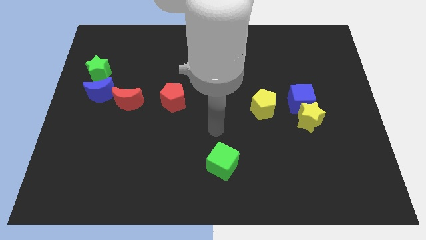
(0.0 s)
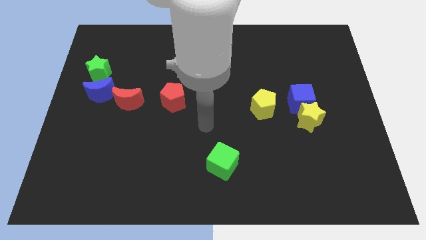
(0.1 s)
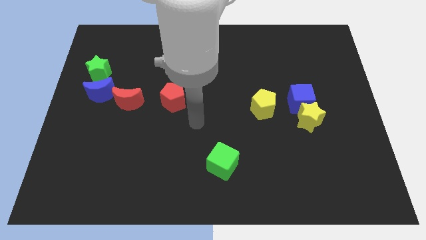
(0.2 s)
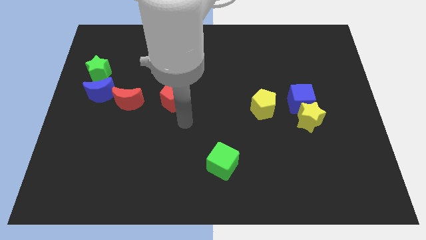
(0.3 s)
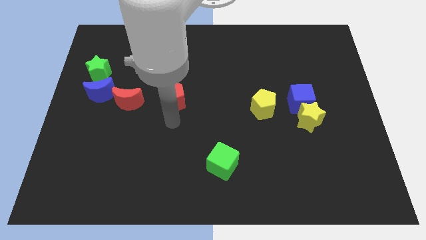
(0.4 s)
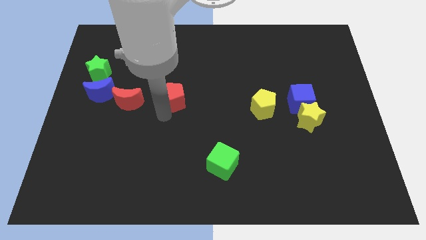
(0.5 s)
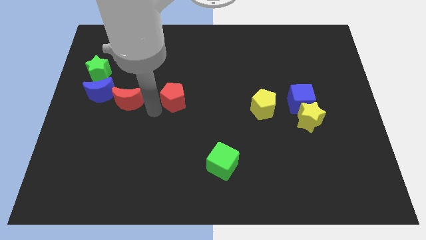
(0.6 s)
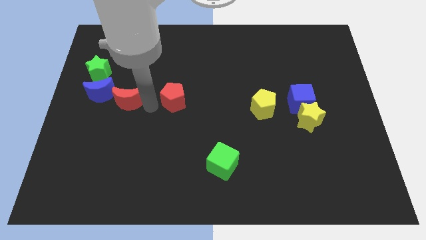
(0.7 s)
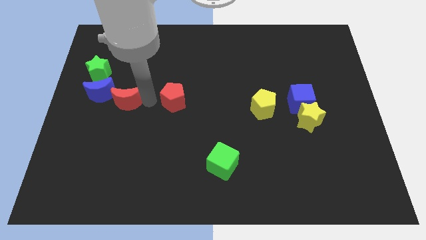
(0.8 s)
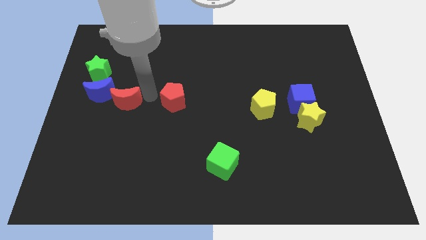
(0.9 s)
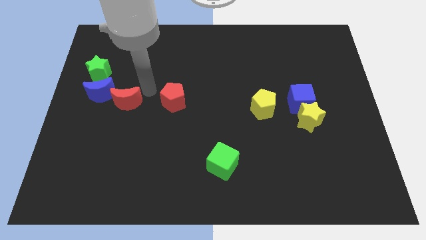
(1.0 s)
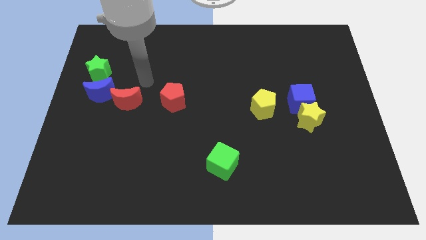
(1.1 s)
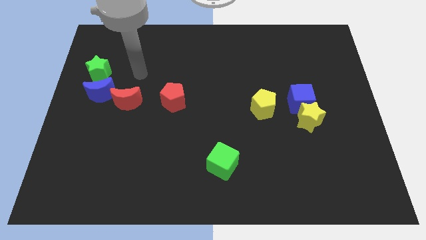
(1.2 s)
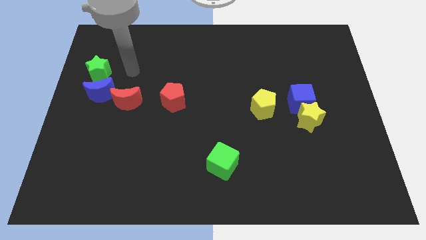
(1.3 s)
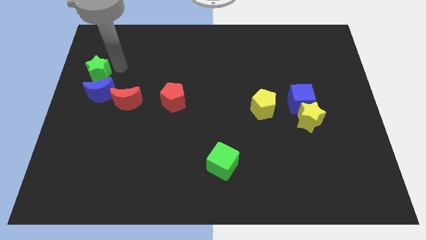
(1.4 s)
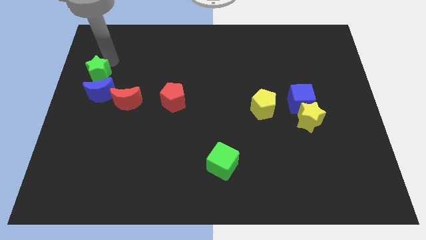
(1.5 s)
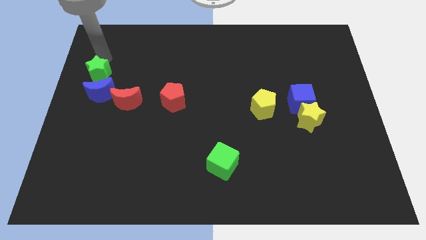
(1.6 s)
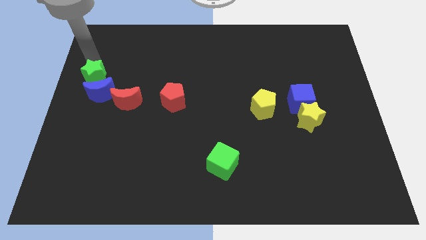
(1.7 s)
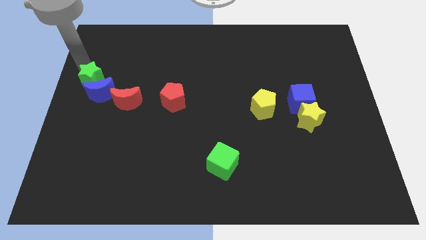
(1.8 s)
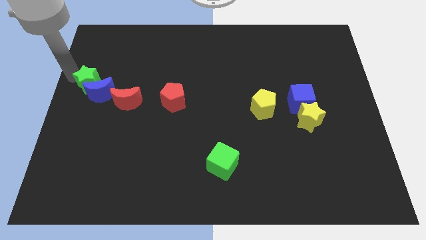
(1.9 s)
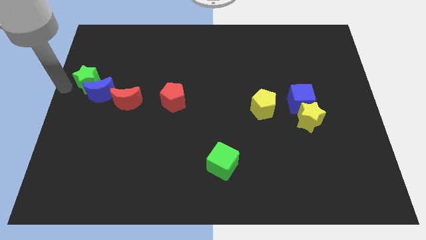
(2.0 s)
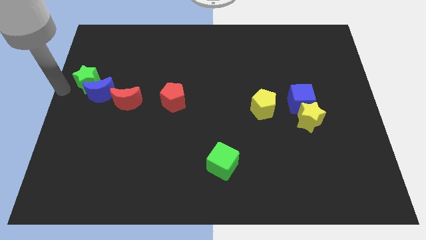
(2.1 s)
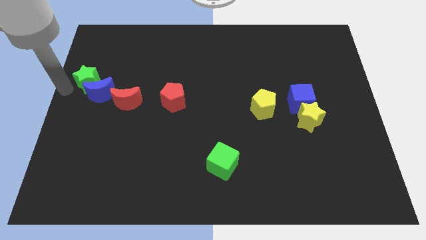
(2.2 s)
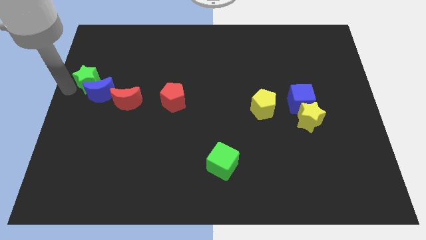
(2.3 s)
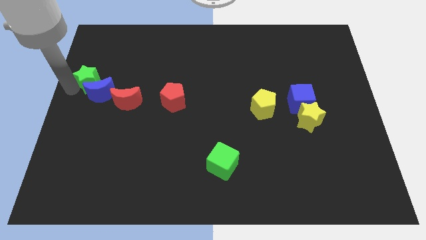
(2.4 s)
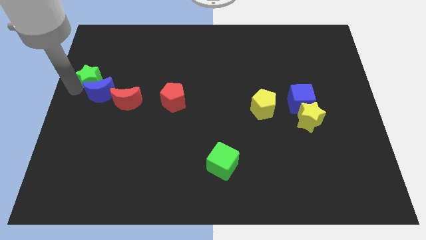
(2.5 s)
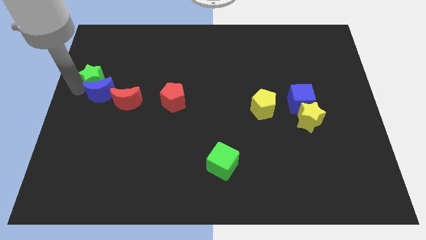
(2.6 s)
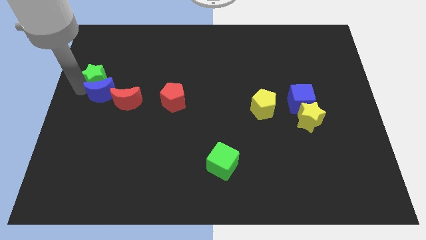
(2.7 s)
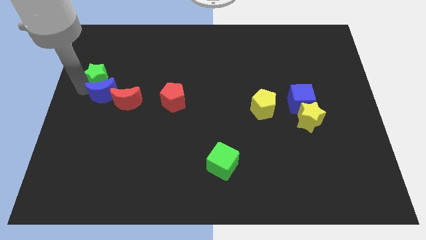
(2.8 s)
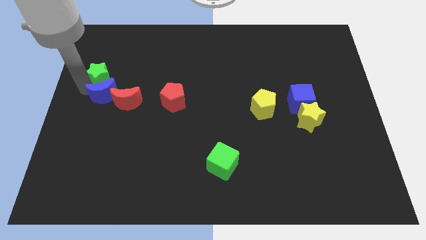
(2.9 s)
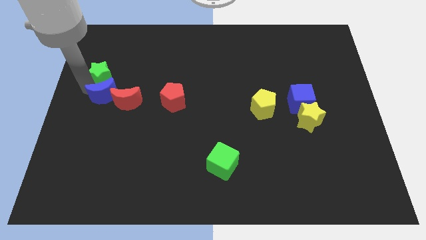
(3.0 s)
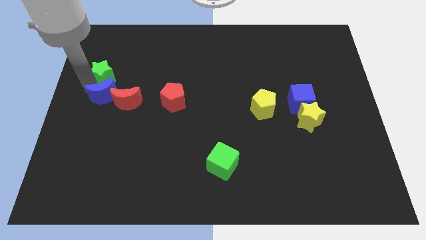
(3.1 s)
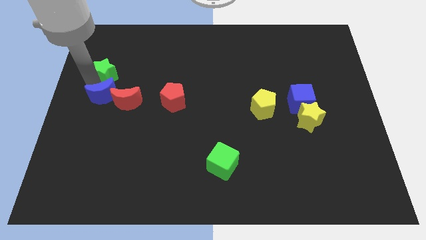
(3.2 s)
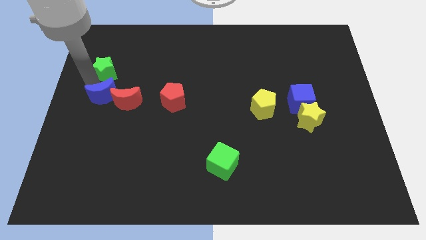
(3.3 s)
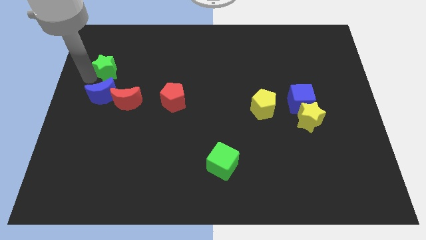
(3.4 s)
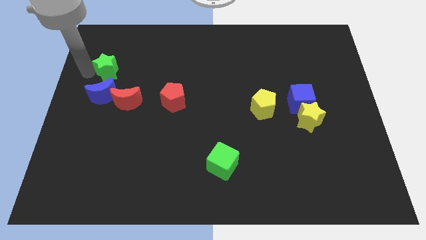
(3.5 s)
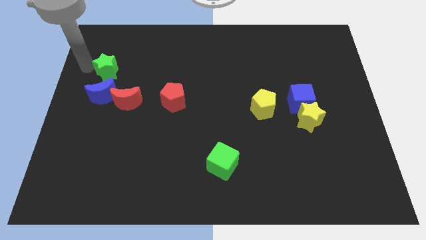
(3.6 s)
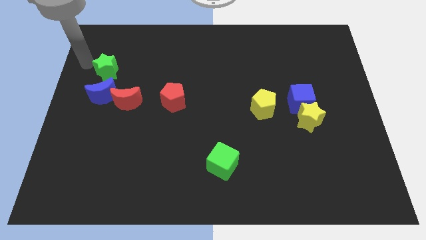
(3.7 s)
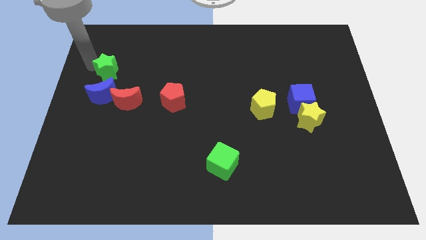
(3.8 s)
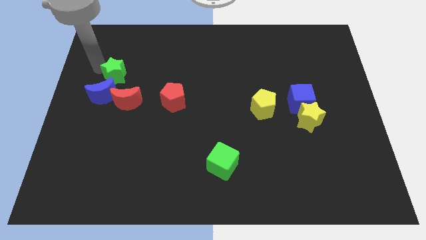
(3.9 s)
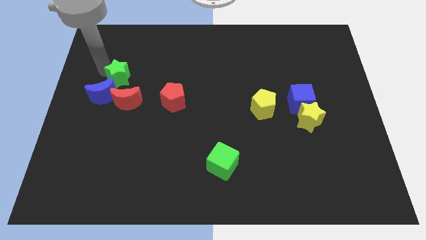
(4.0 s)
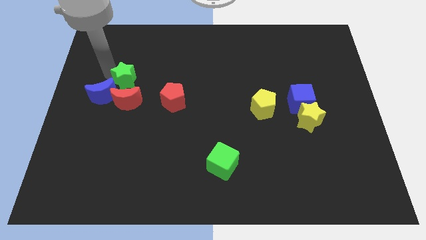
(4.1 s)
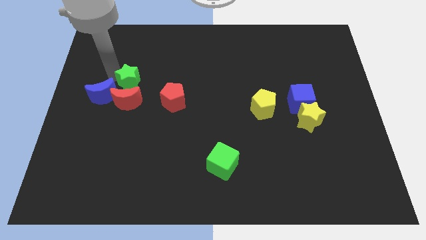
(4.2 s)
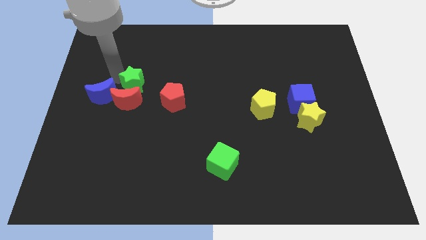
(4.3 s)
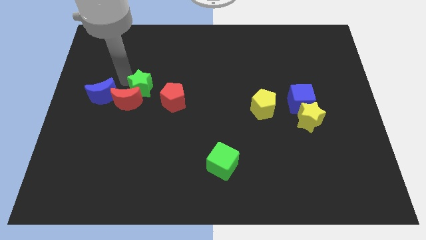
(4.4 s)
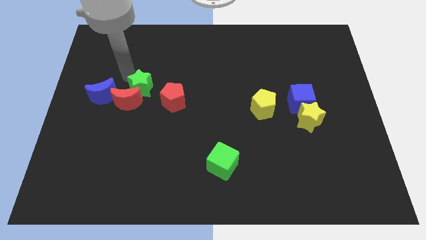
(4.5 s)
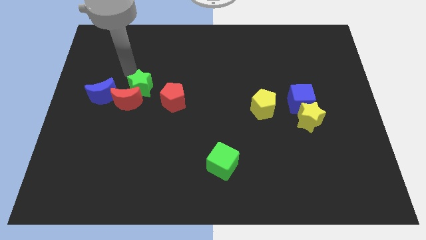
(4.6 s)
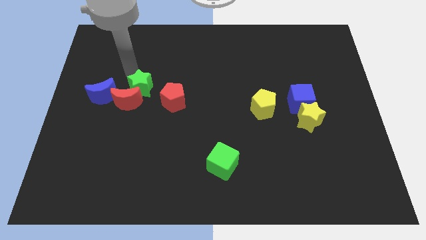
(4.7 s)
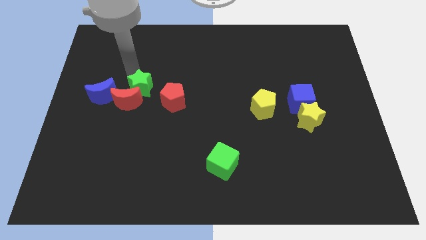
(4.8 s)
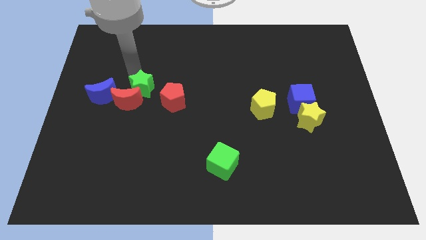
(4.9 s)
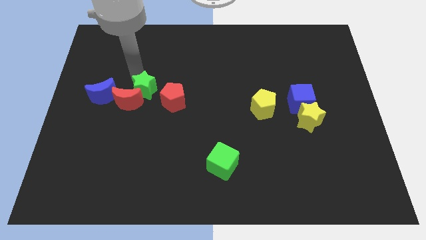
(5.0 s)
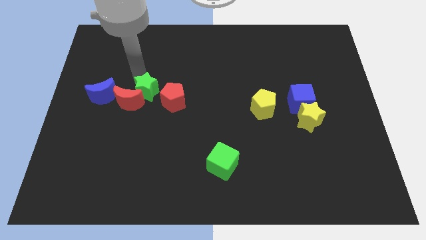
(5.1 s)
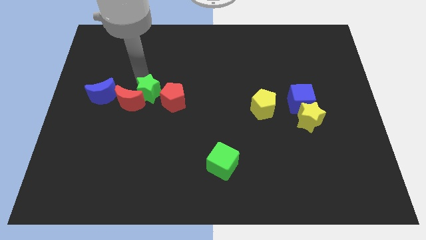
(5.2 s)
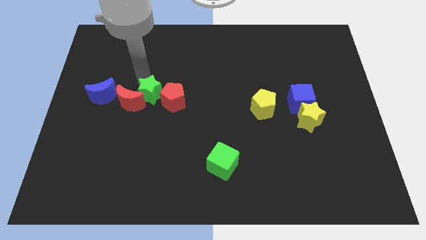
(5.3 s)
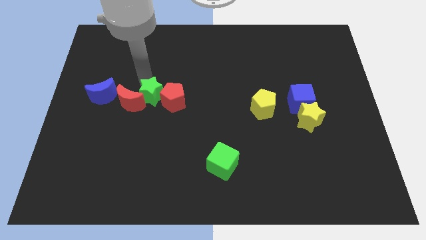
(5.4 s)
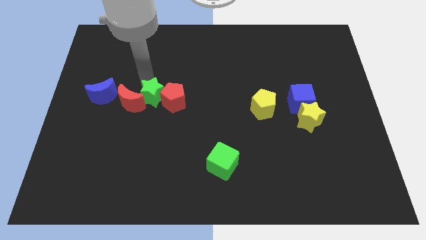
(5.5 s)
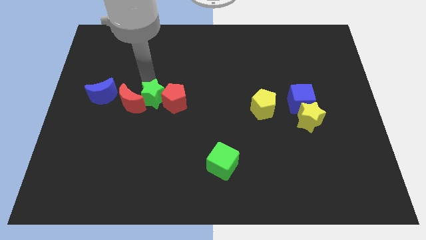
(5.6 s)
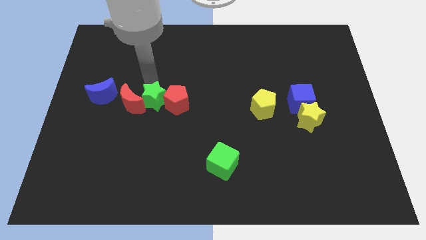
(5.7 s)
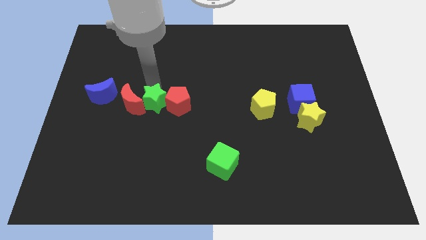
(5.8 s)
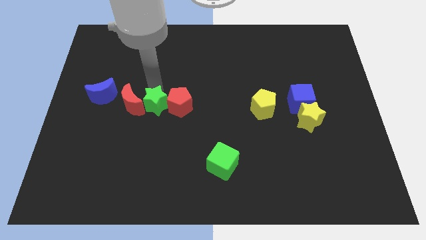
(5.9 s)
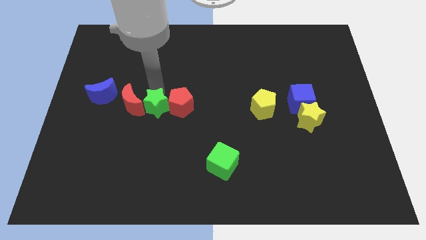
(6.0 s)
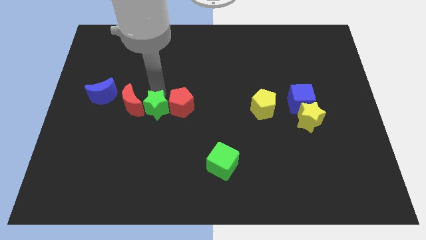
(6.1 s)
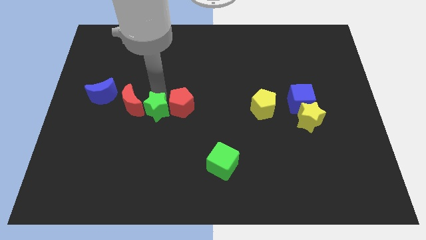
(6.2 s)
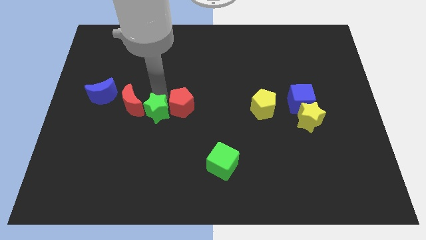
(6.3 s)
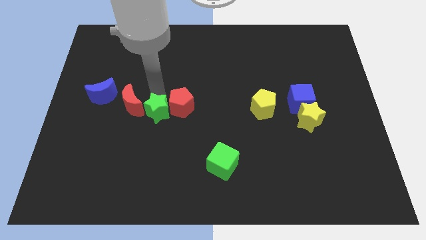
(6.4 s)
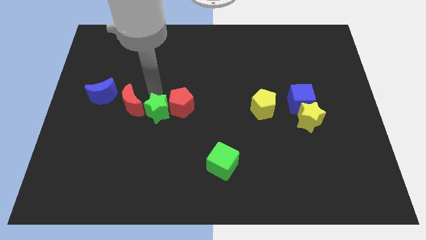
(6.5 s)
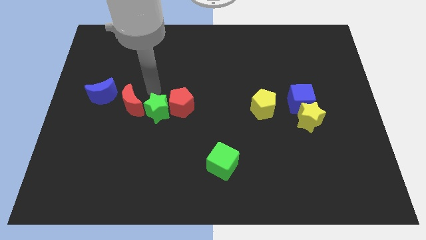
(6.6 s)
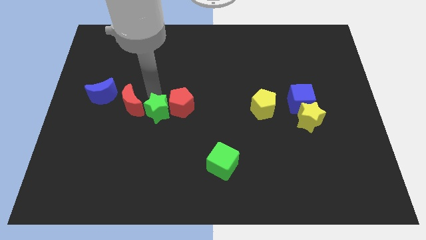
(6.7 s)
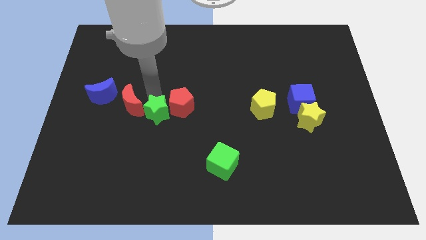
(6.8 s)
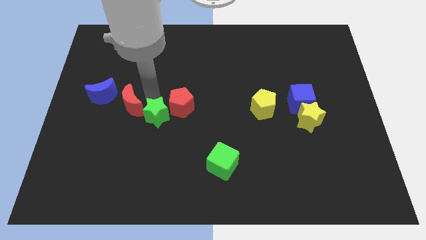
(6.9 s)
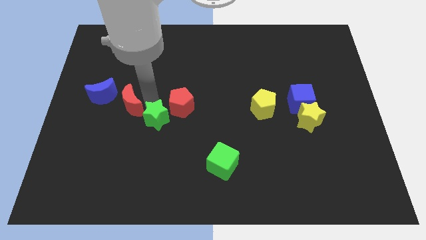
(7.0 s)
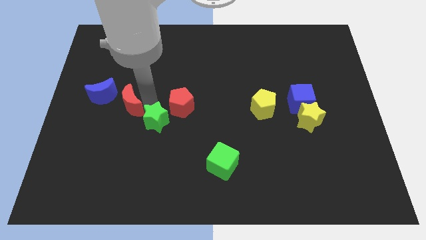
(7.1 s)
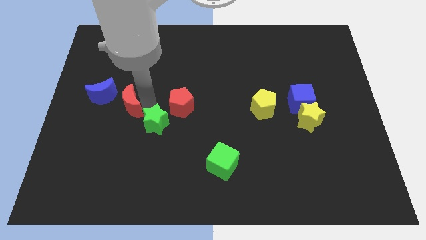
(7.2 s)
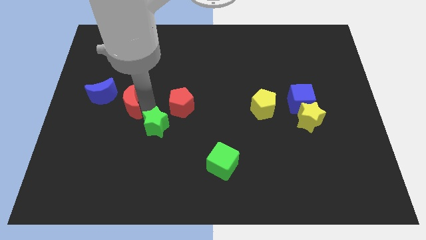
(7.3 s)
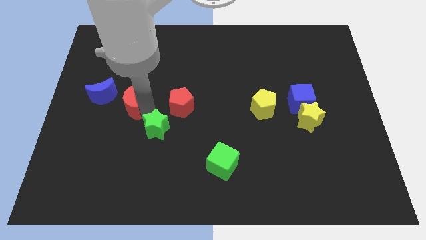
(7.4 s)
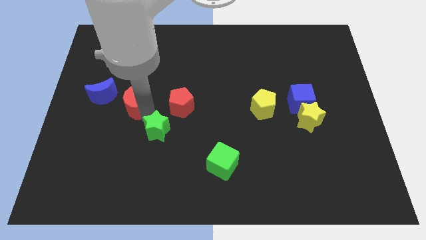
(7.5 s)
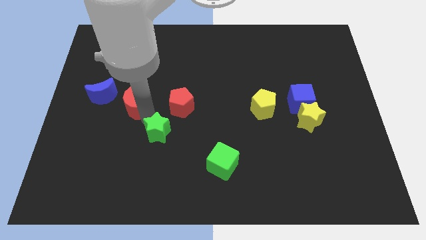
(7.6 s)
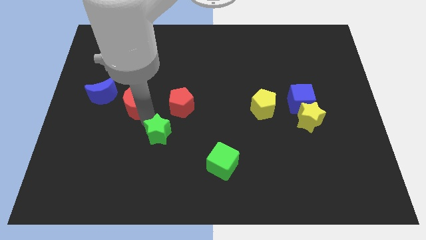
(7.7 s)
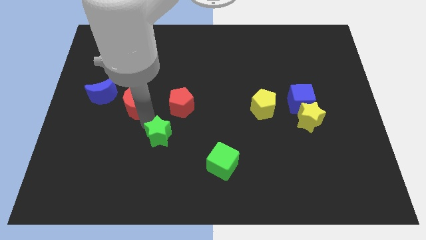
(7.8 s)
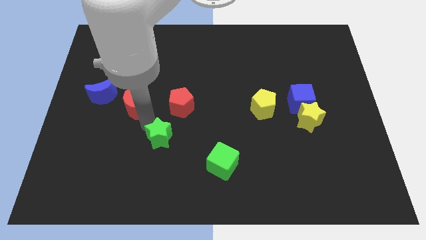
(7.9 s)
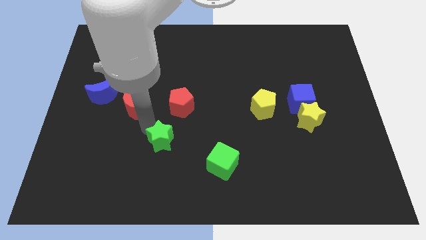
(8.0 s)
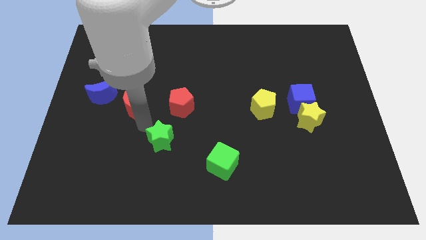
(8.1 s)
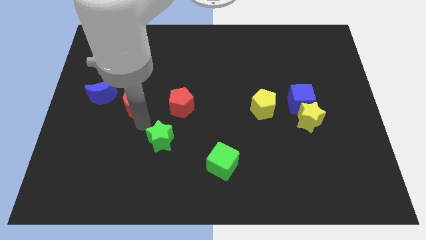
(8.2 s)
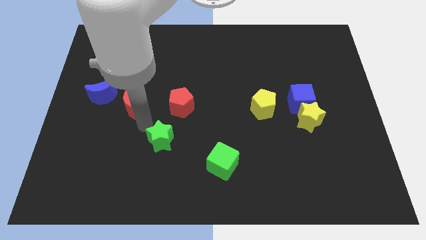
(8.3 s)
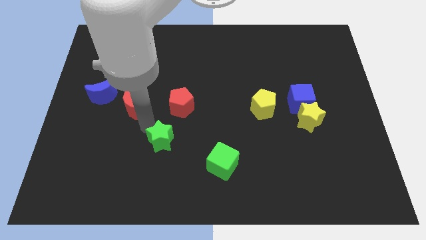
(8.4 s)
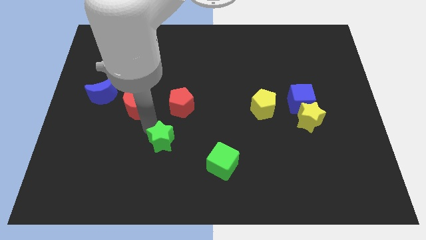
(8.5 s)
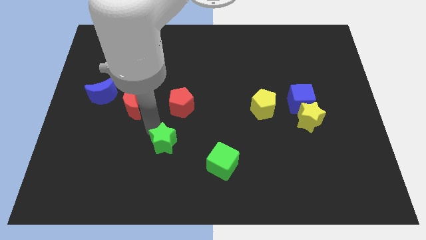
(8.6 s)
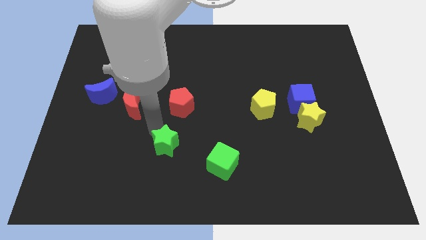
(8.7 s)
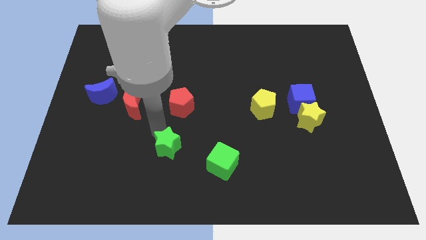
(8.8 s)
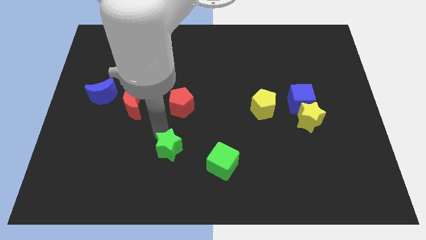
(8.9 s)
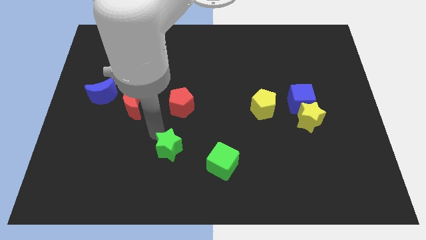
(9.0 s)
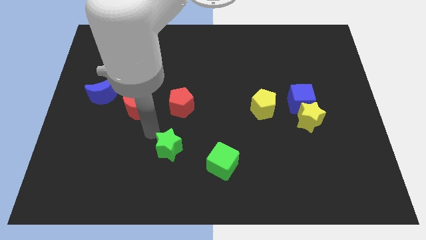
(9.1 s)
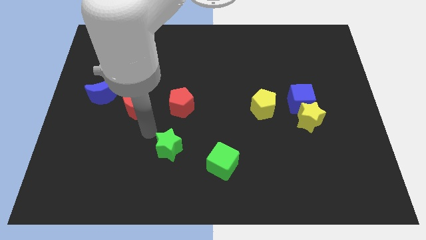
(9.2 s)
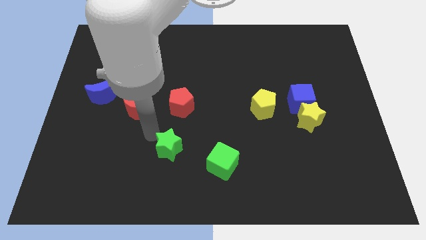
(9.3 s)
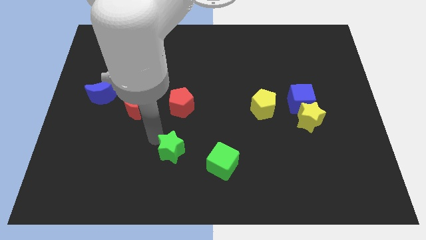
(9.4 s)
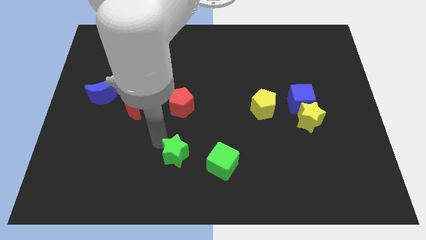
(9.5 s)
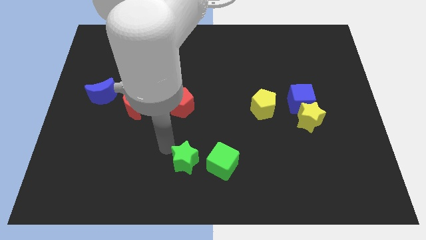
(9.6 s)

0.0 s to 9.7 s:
slide the green star to the bottom side
